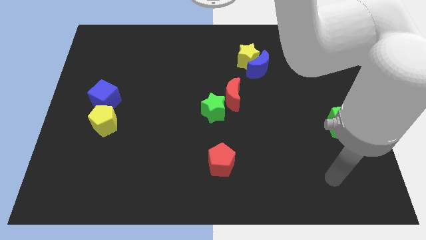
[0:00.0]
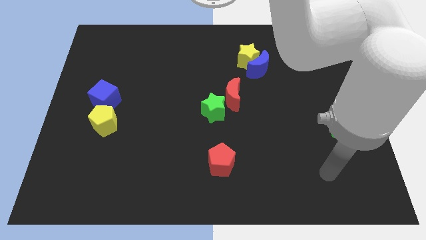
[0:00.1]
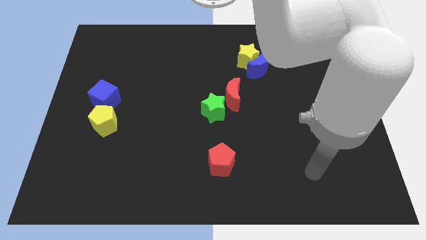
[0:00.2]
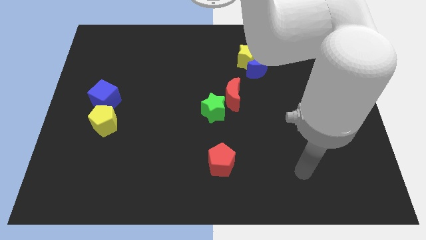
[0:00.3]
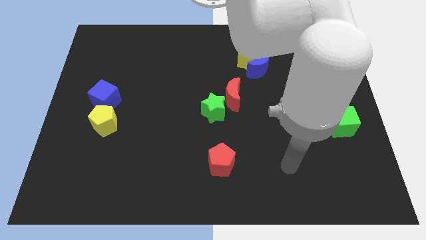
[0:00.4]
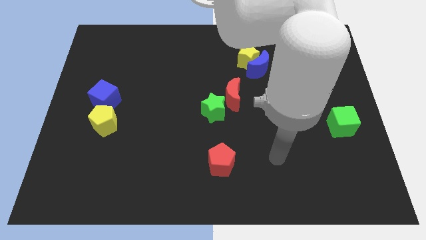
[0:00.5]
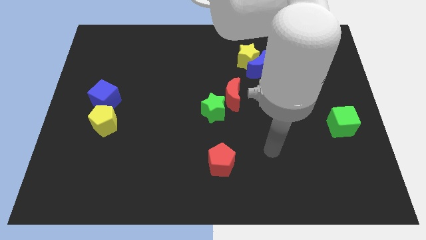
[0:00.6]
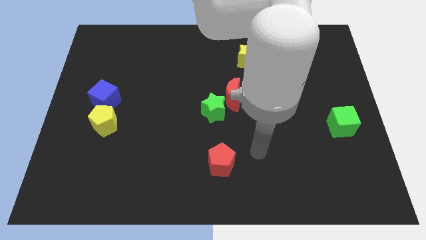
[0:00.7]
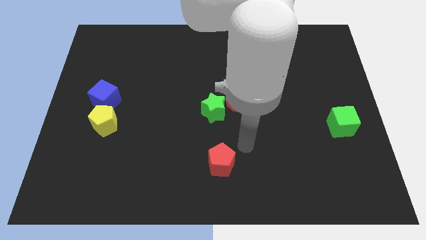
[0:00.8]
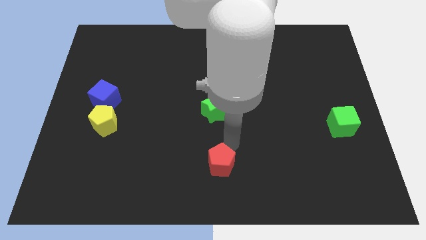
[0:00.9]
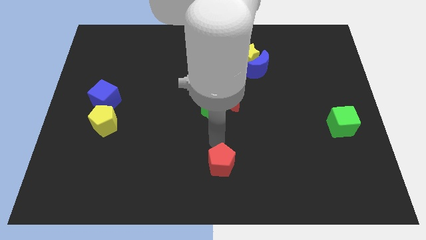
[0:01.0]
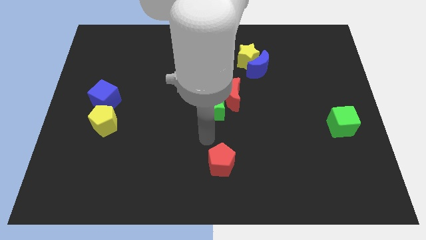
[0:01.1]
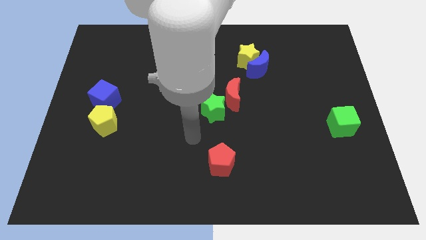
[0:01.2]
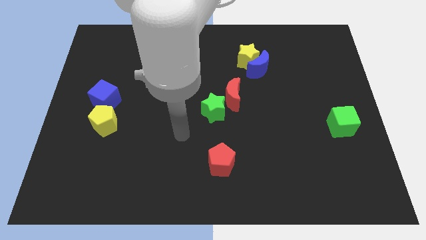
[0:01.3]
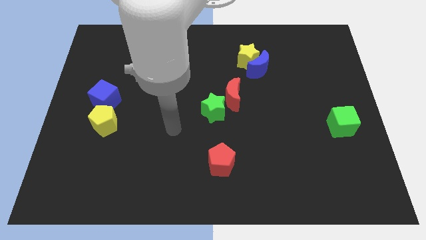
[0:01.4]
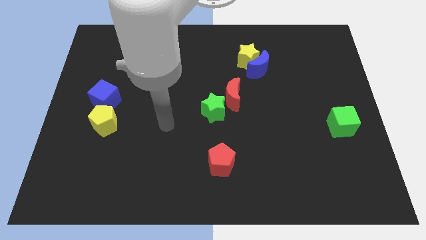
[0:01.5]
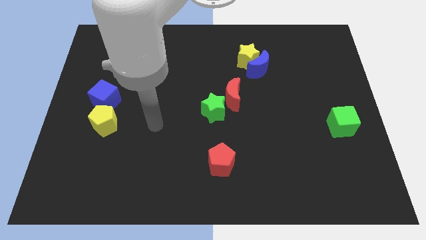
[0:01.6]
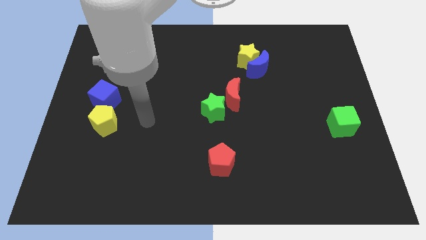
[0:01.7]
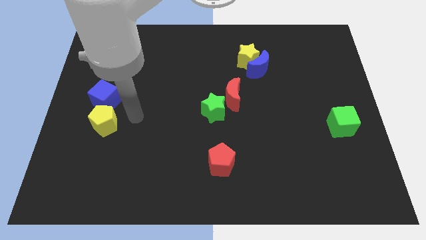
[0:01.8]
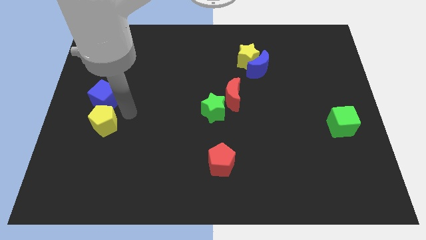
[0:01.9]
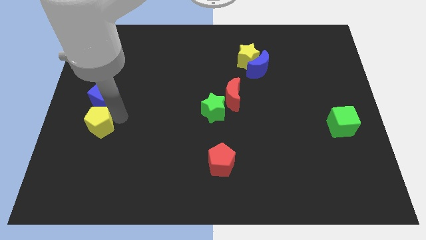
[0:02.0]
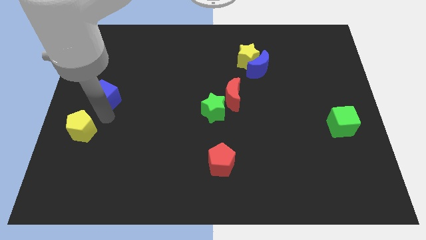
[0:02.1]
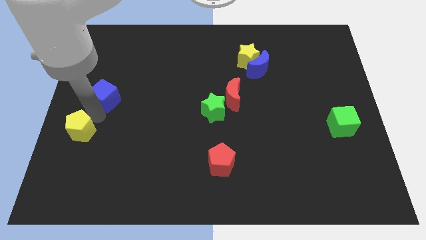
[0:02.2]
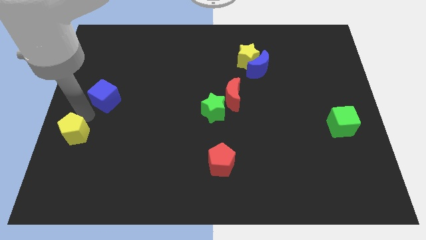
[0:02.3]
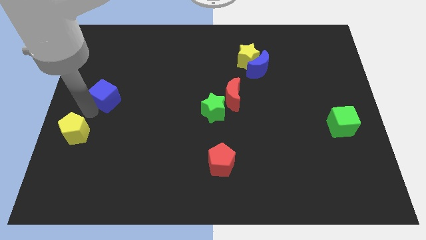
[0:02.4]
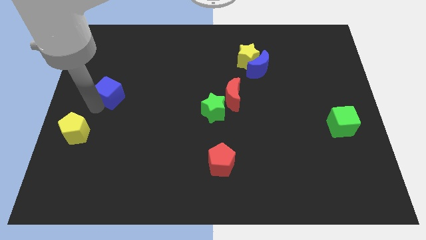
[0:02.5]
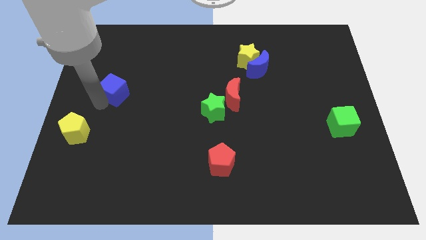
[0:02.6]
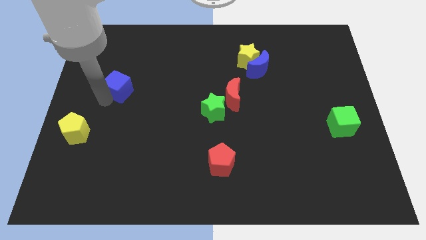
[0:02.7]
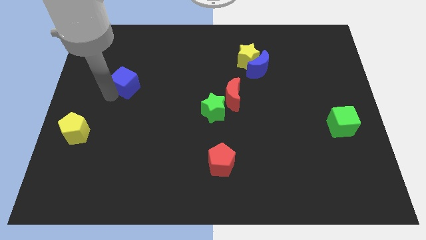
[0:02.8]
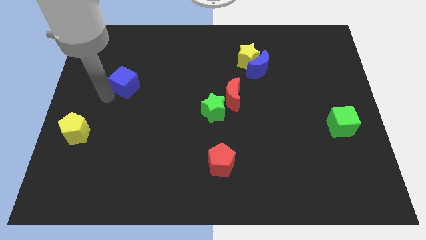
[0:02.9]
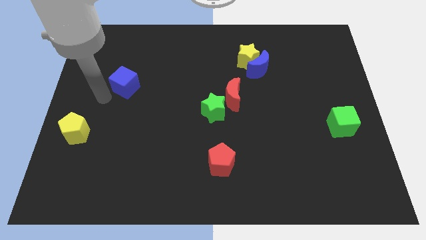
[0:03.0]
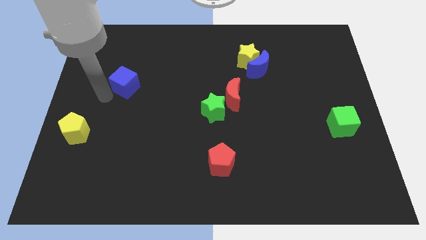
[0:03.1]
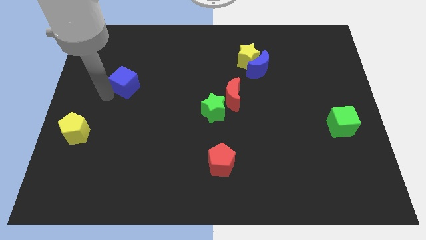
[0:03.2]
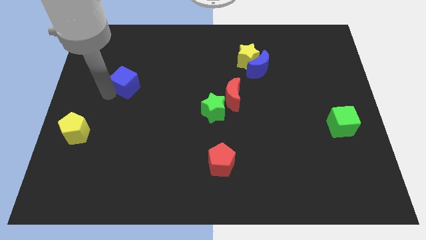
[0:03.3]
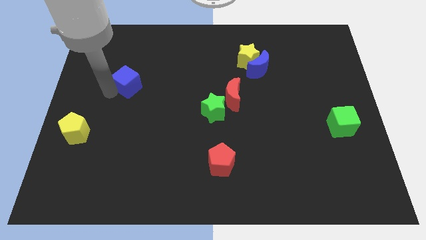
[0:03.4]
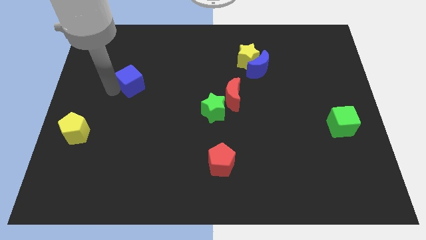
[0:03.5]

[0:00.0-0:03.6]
push the blue cube a bit up and to the right

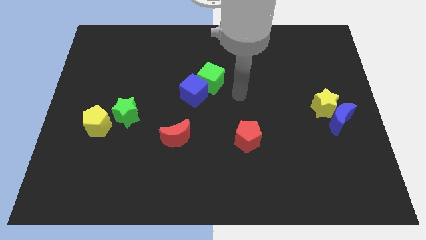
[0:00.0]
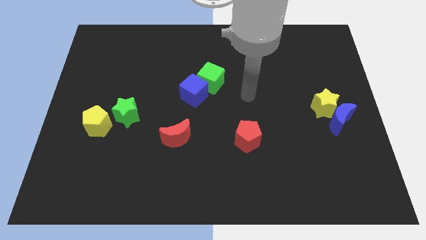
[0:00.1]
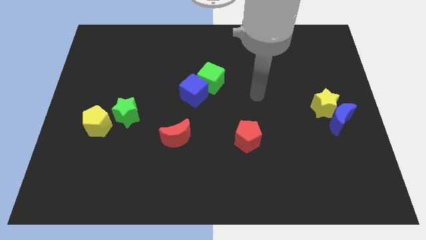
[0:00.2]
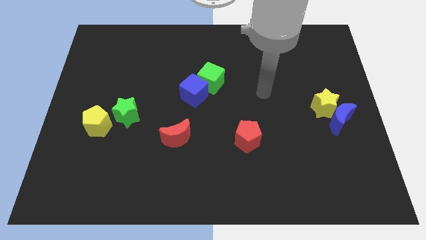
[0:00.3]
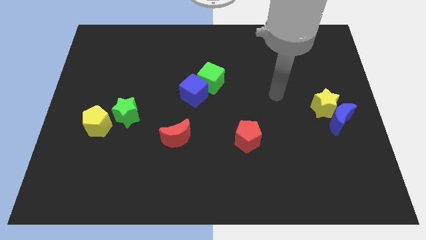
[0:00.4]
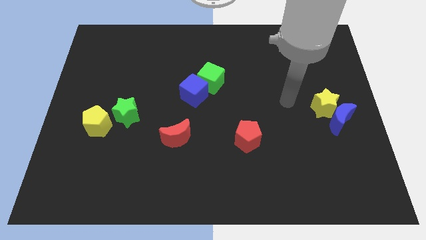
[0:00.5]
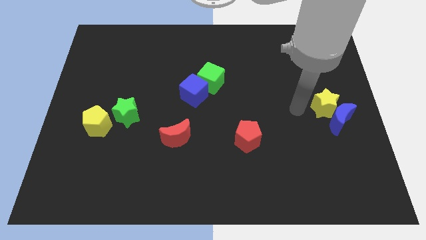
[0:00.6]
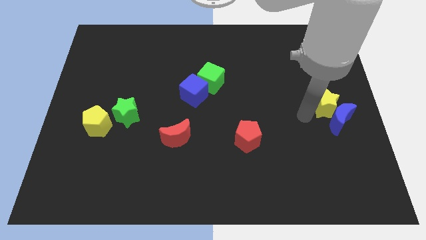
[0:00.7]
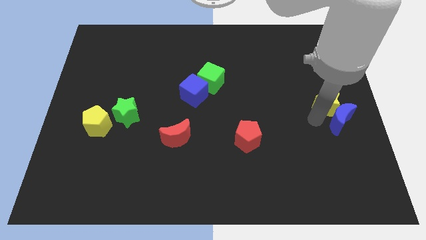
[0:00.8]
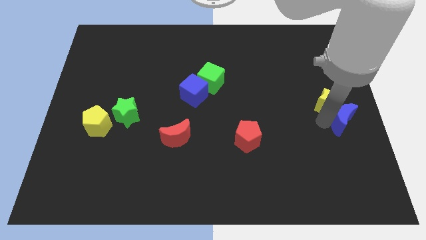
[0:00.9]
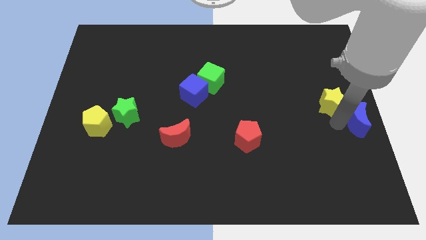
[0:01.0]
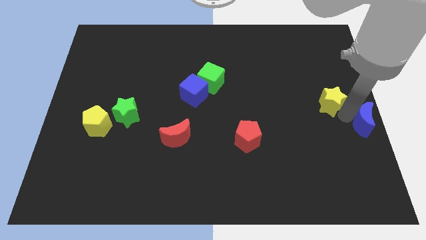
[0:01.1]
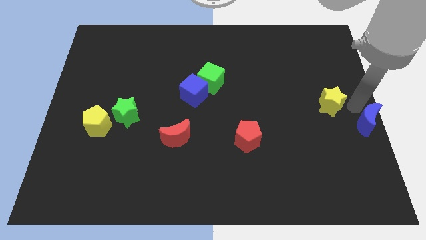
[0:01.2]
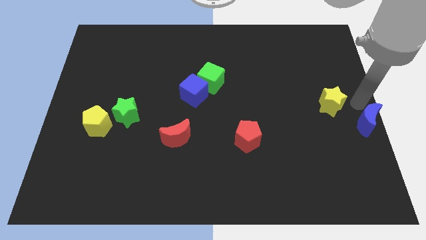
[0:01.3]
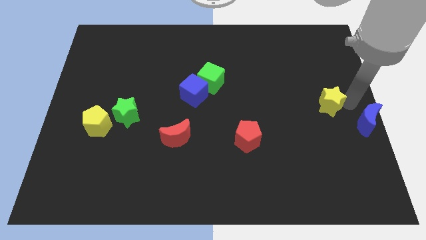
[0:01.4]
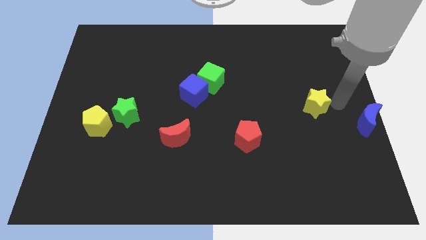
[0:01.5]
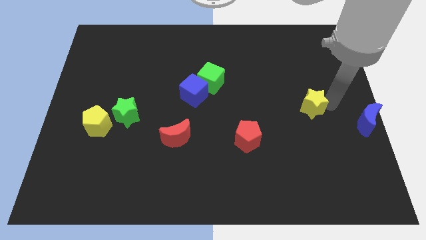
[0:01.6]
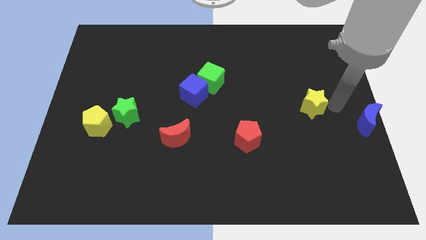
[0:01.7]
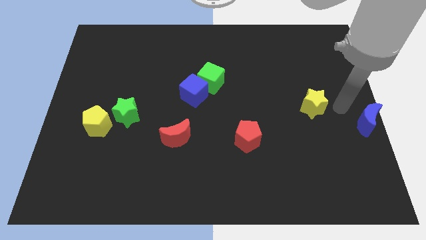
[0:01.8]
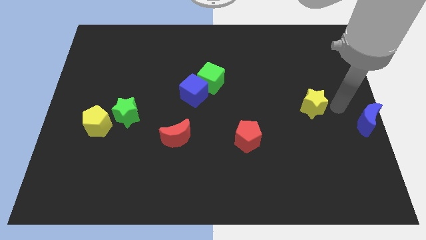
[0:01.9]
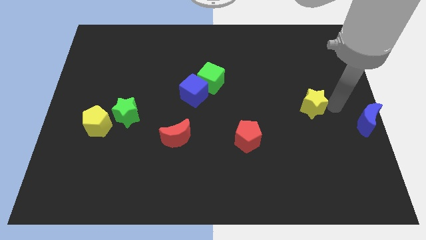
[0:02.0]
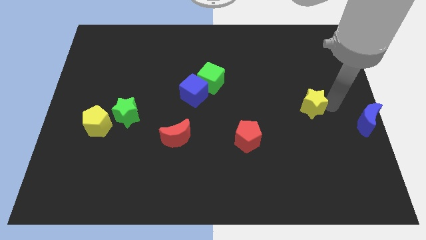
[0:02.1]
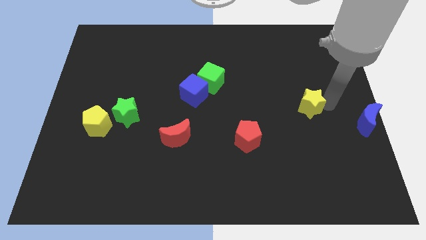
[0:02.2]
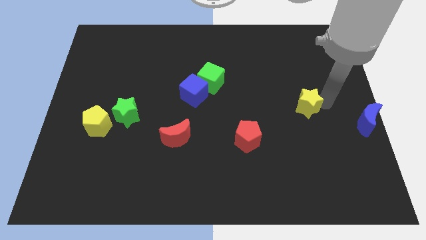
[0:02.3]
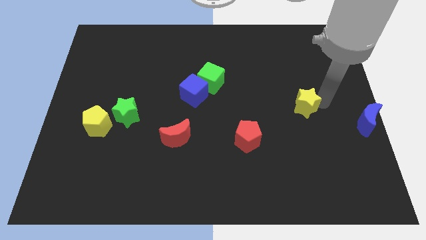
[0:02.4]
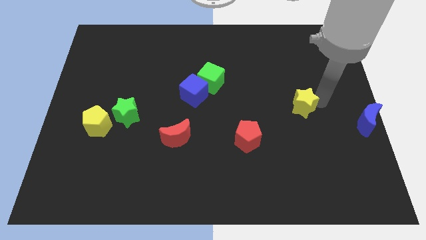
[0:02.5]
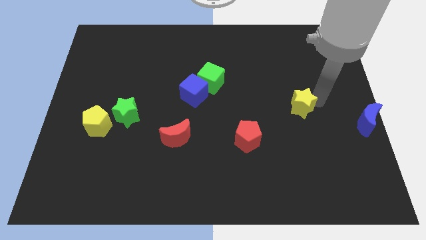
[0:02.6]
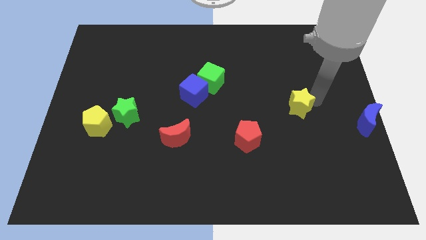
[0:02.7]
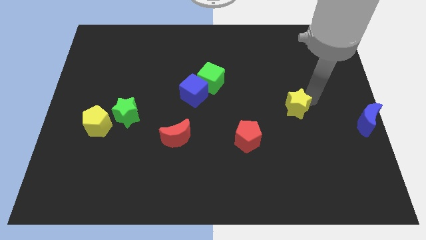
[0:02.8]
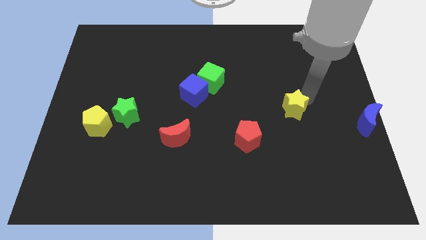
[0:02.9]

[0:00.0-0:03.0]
slightly slide the yellow star to the left

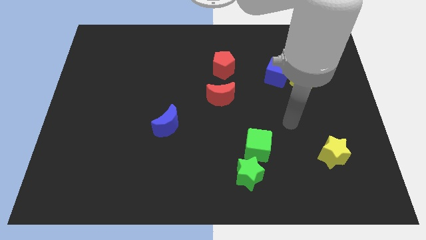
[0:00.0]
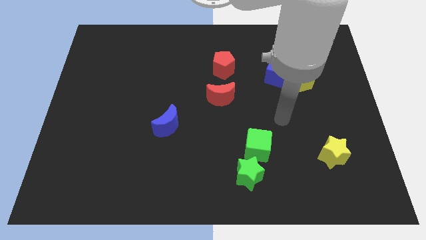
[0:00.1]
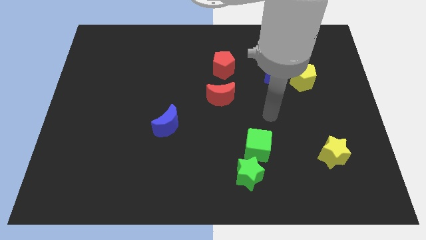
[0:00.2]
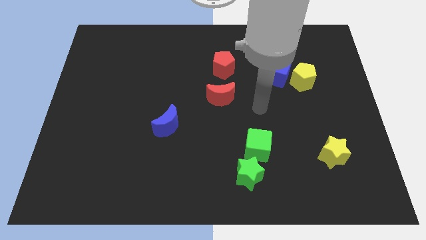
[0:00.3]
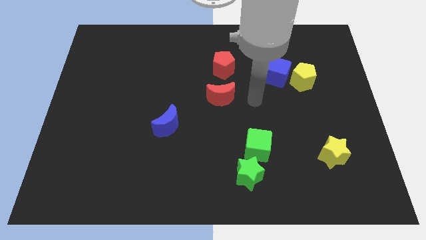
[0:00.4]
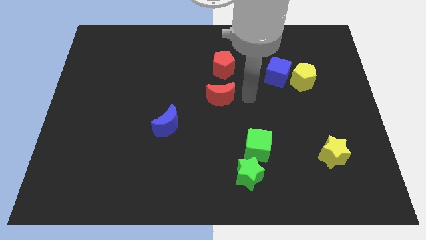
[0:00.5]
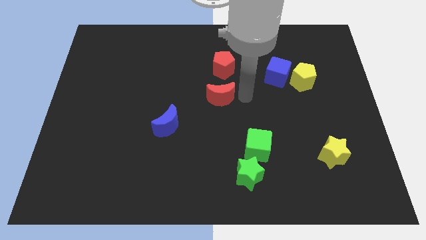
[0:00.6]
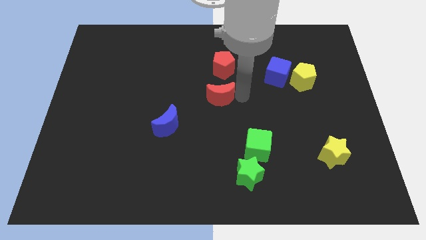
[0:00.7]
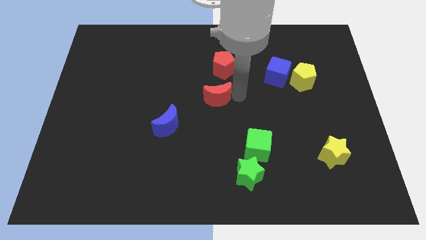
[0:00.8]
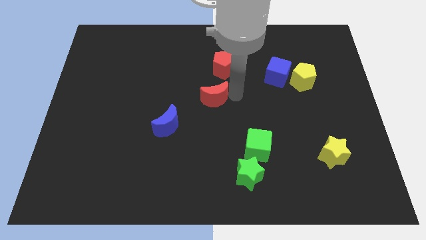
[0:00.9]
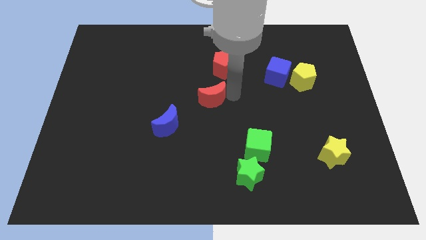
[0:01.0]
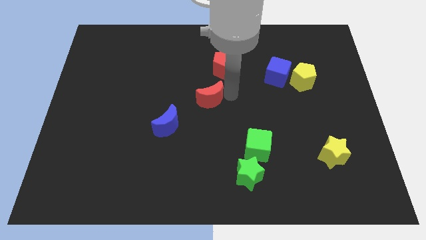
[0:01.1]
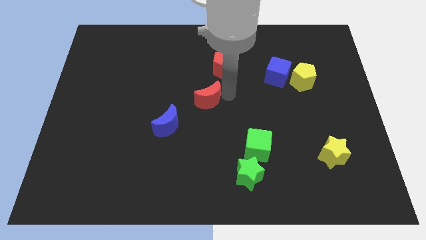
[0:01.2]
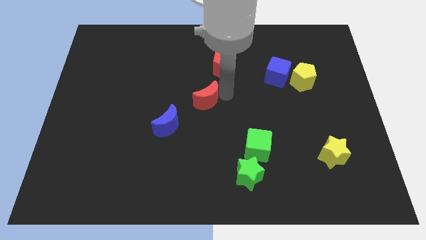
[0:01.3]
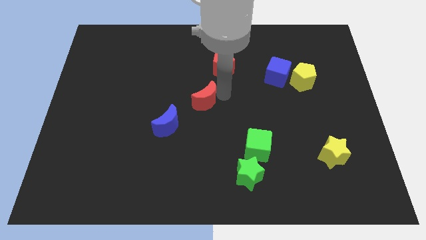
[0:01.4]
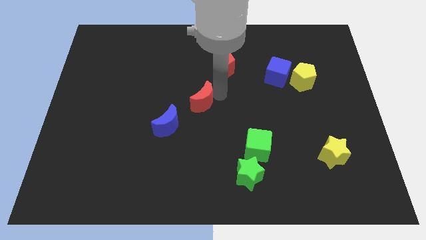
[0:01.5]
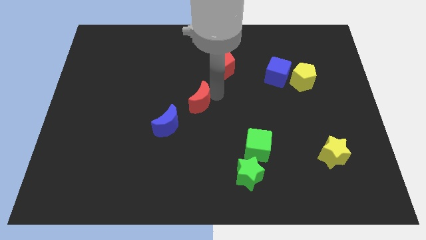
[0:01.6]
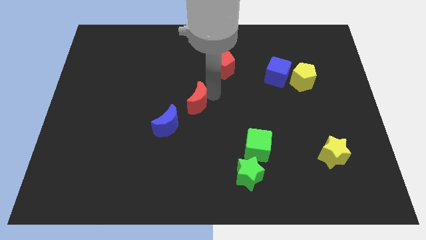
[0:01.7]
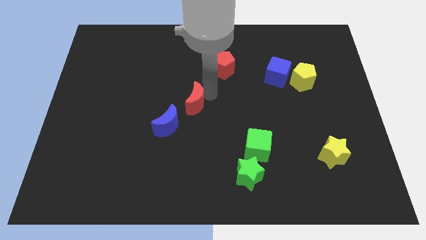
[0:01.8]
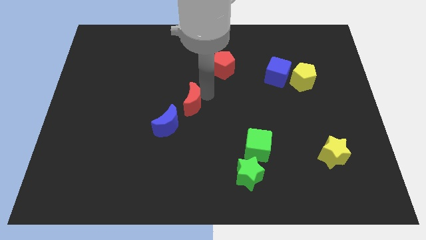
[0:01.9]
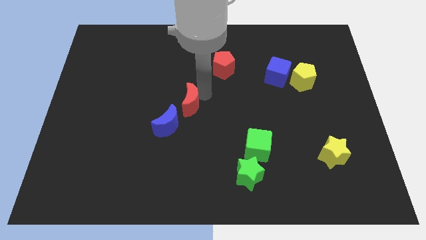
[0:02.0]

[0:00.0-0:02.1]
slightly slide the red moon left
